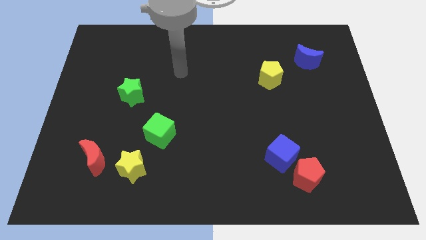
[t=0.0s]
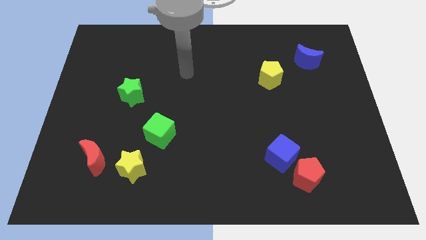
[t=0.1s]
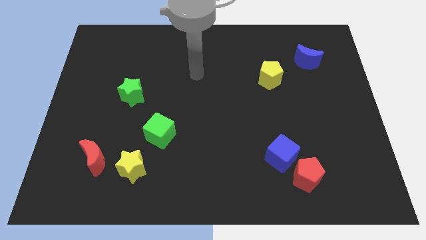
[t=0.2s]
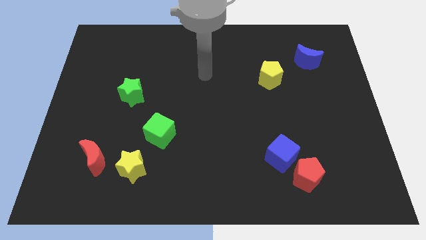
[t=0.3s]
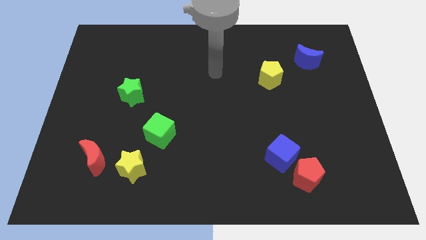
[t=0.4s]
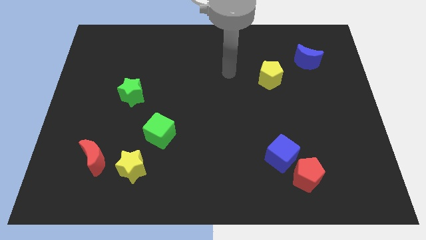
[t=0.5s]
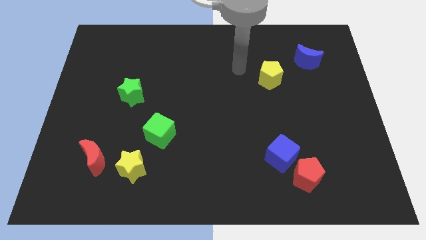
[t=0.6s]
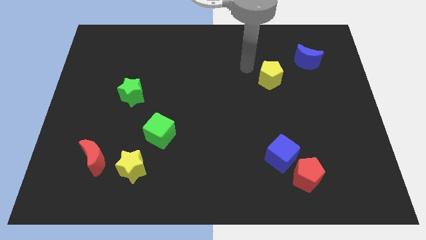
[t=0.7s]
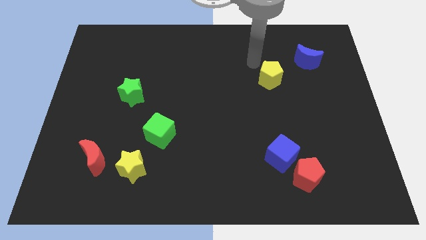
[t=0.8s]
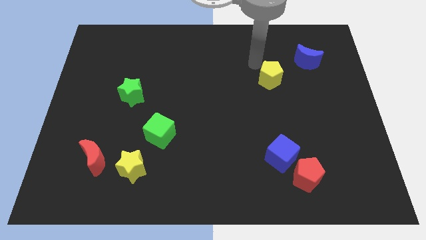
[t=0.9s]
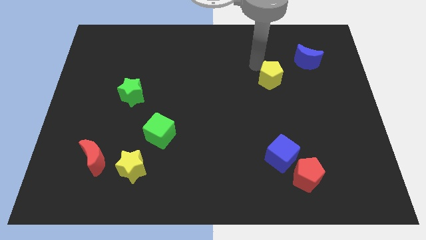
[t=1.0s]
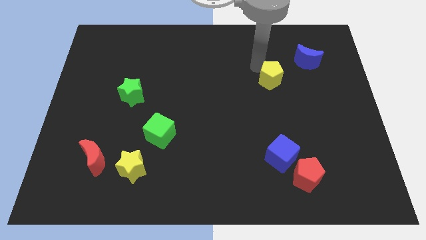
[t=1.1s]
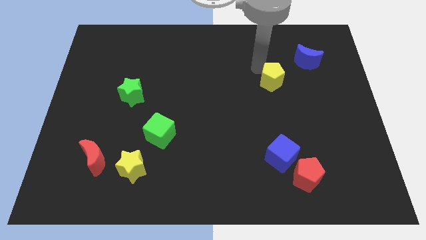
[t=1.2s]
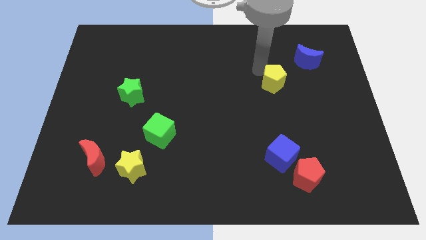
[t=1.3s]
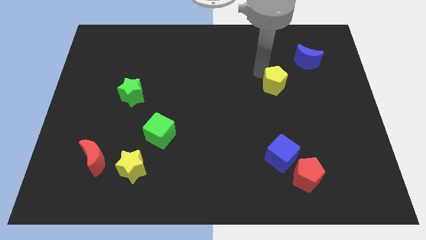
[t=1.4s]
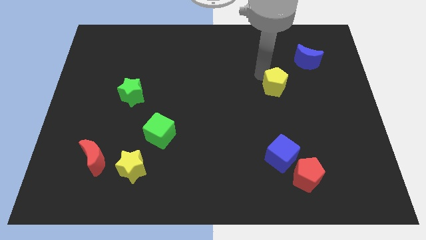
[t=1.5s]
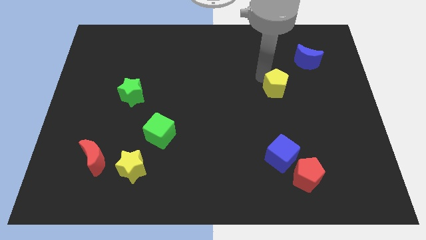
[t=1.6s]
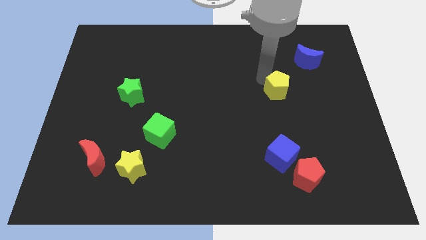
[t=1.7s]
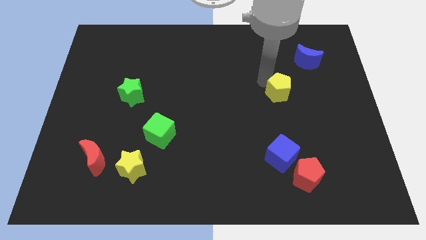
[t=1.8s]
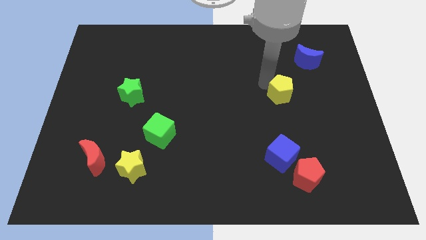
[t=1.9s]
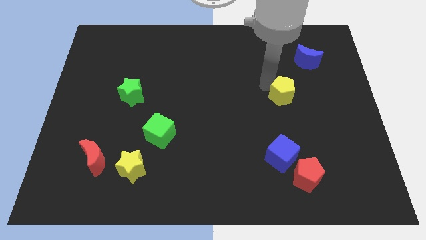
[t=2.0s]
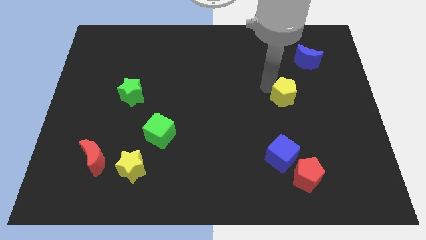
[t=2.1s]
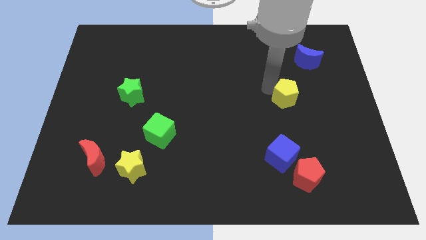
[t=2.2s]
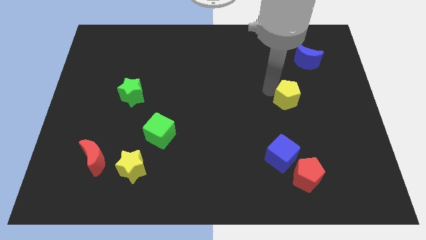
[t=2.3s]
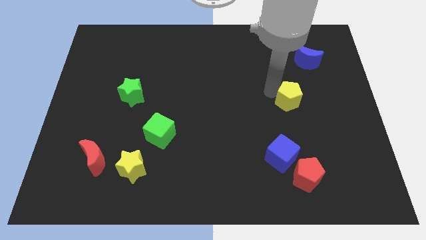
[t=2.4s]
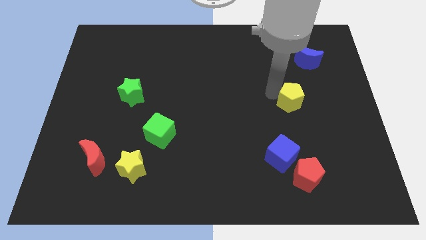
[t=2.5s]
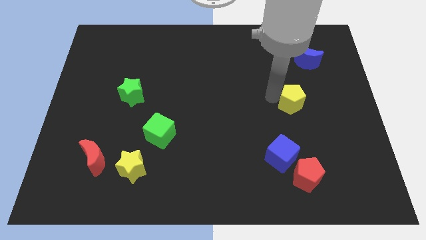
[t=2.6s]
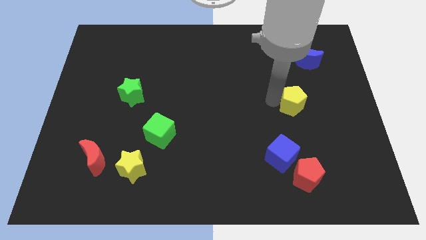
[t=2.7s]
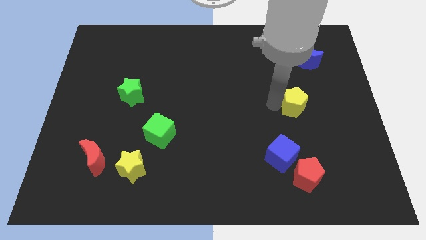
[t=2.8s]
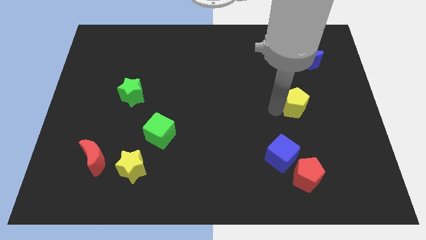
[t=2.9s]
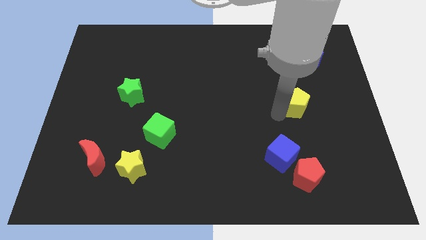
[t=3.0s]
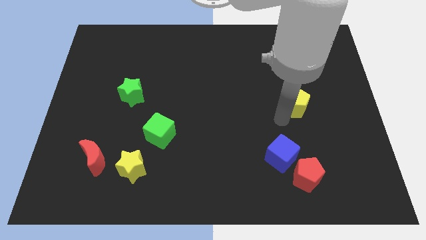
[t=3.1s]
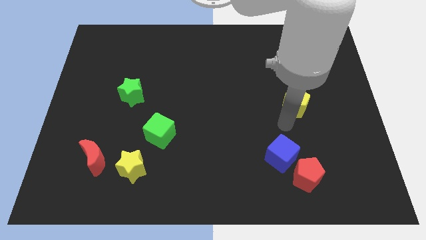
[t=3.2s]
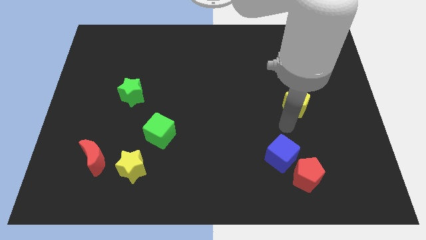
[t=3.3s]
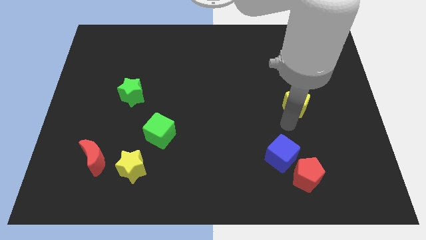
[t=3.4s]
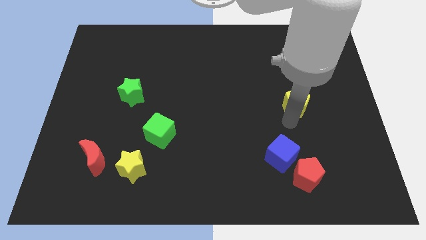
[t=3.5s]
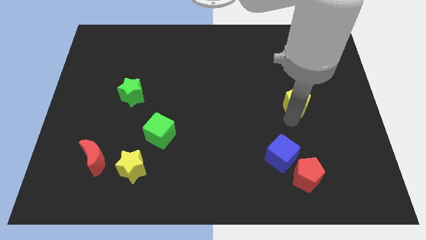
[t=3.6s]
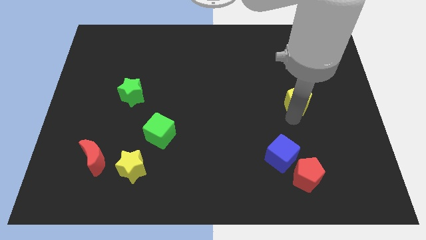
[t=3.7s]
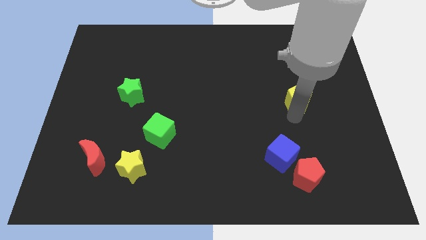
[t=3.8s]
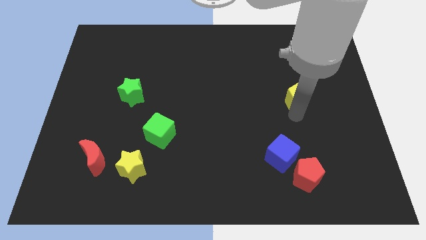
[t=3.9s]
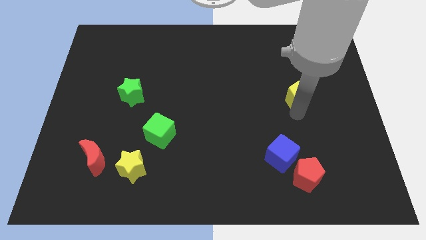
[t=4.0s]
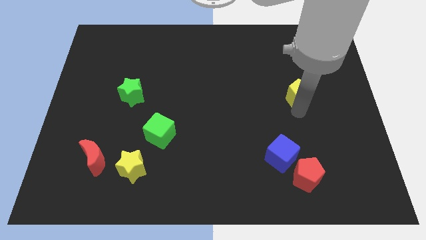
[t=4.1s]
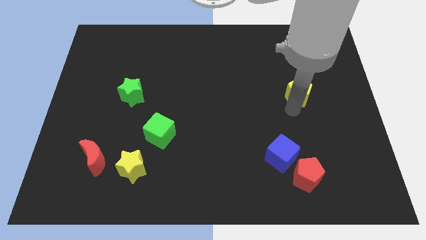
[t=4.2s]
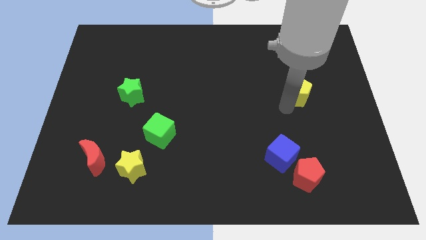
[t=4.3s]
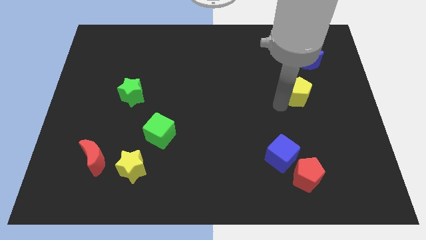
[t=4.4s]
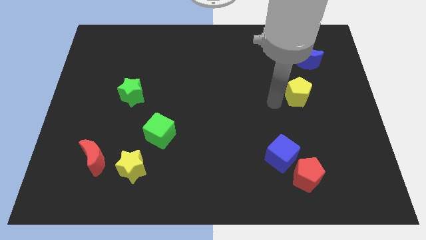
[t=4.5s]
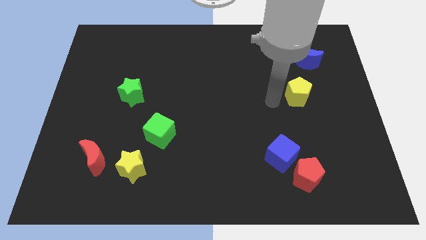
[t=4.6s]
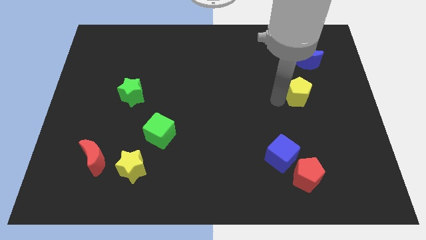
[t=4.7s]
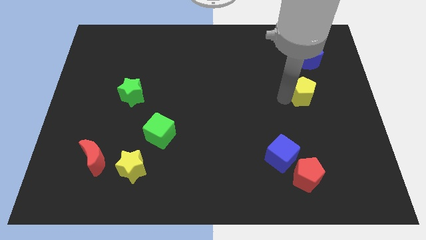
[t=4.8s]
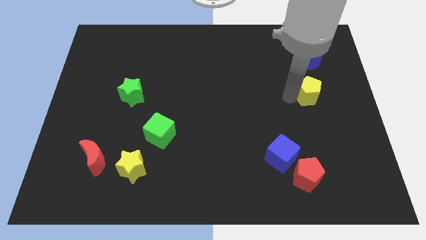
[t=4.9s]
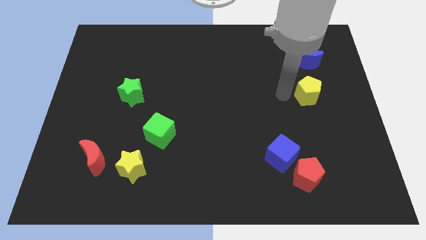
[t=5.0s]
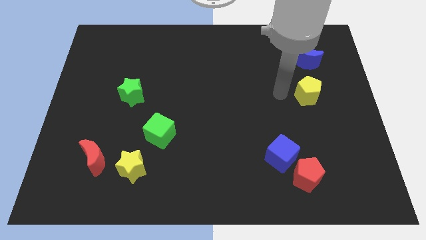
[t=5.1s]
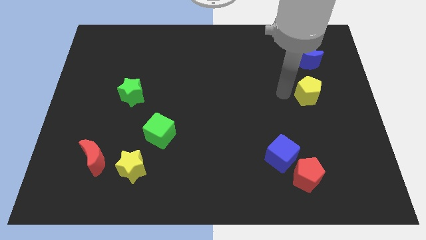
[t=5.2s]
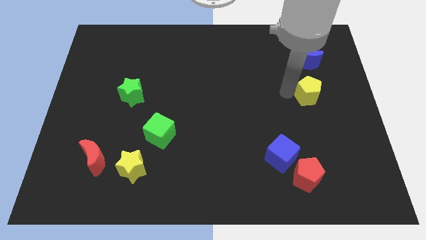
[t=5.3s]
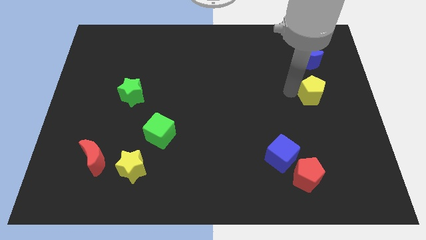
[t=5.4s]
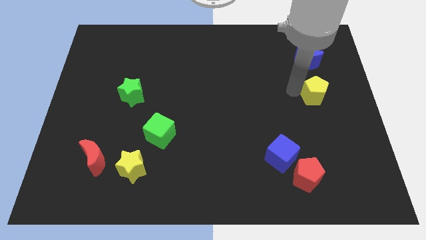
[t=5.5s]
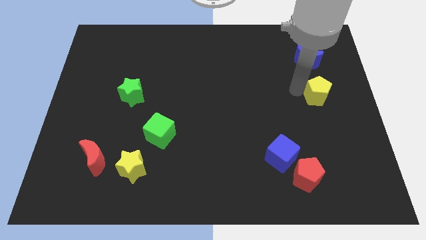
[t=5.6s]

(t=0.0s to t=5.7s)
move the yellow pentagon to the right side of the board

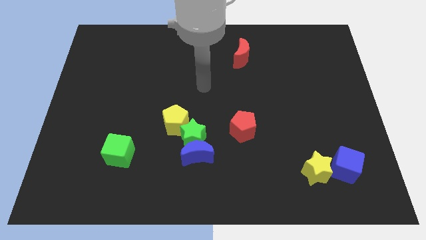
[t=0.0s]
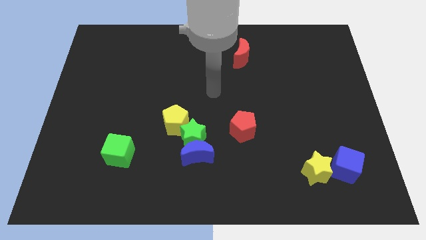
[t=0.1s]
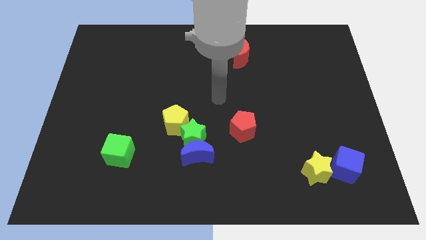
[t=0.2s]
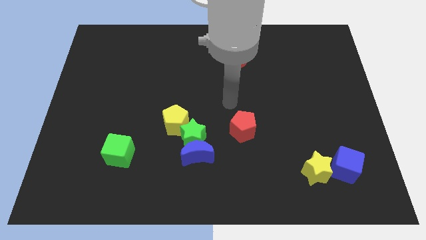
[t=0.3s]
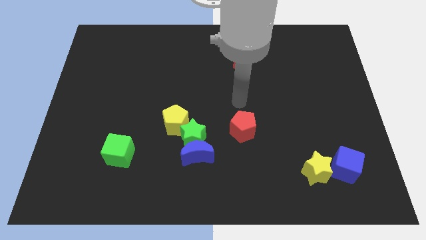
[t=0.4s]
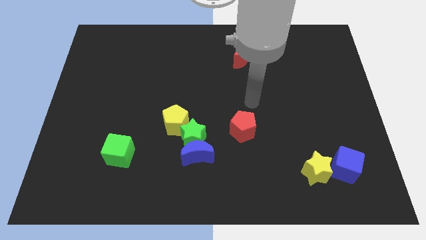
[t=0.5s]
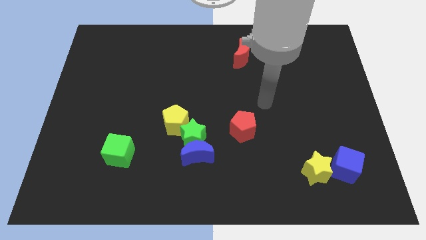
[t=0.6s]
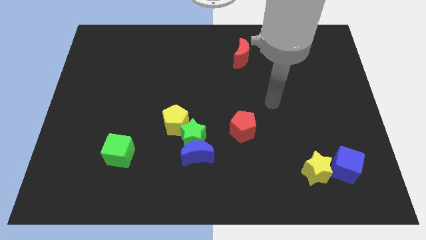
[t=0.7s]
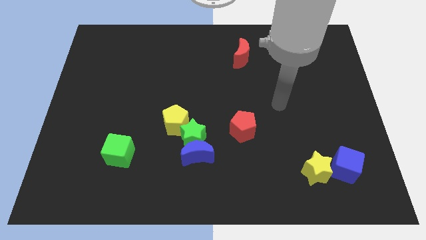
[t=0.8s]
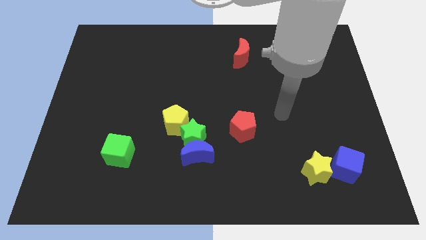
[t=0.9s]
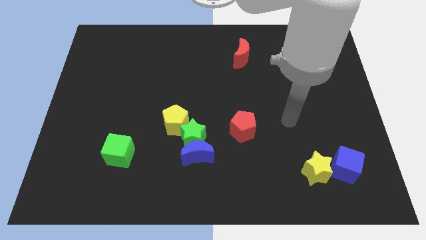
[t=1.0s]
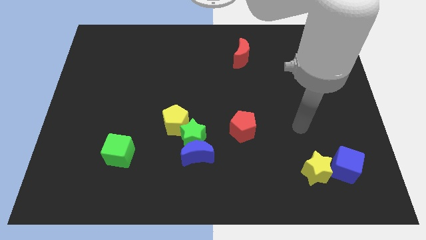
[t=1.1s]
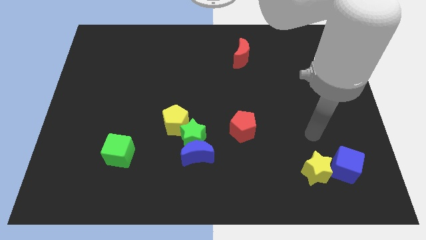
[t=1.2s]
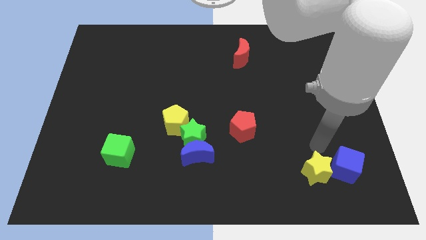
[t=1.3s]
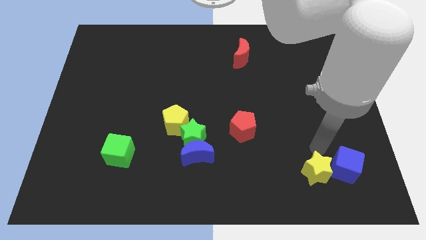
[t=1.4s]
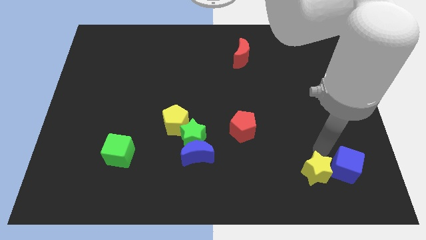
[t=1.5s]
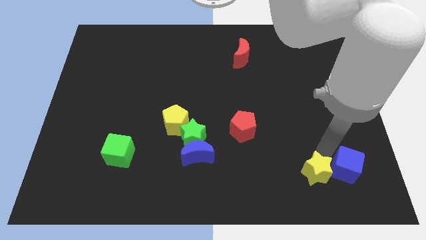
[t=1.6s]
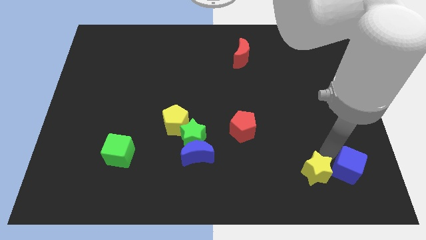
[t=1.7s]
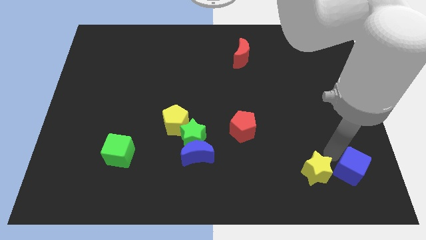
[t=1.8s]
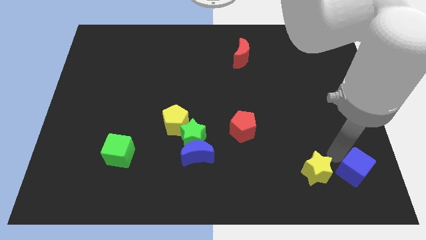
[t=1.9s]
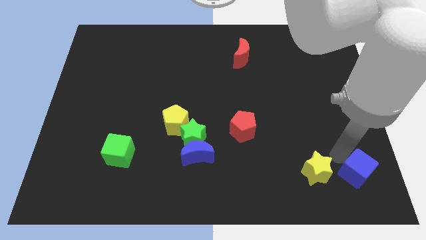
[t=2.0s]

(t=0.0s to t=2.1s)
move the blue cube to the bottom right corner
